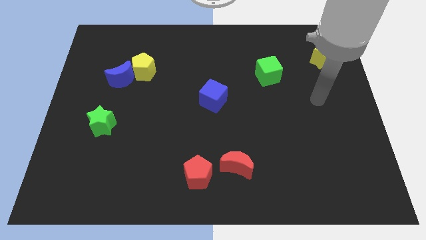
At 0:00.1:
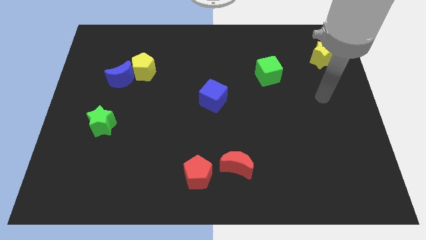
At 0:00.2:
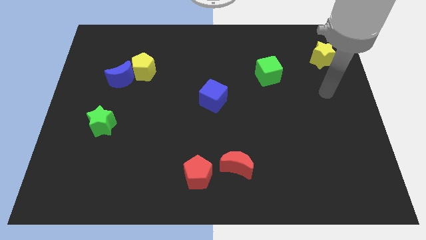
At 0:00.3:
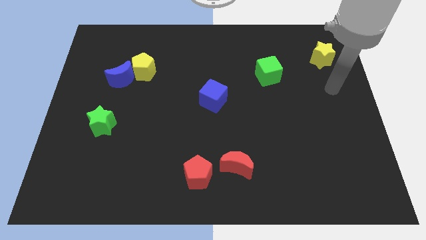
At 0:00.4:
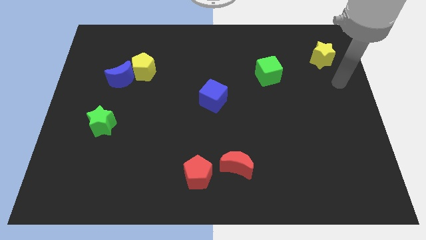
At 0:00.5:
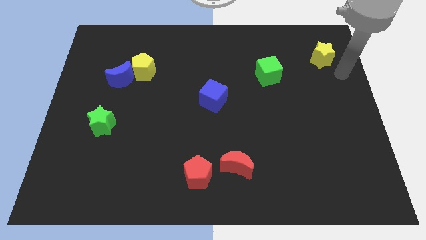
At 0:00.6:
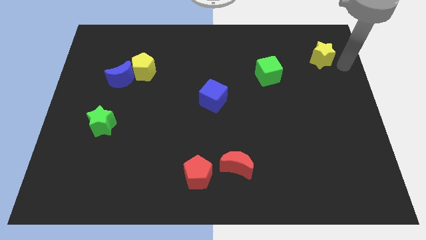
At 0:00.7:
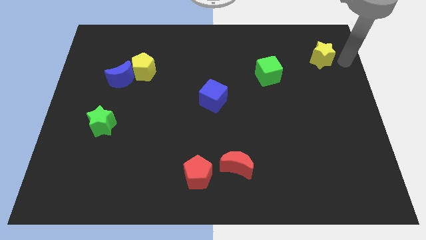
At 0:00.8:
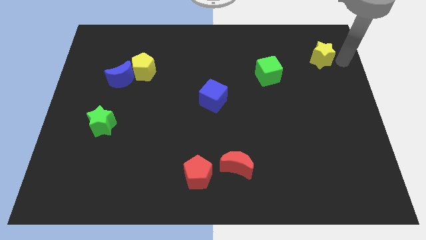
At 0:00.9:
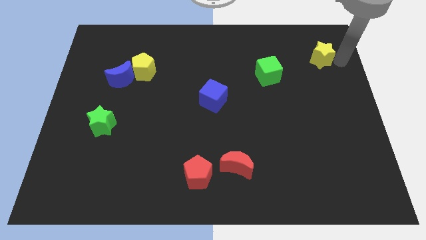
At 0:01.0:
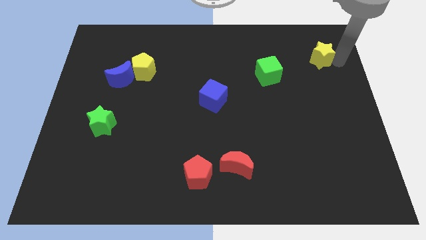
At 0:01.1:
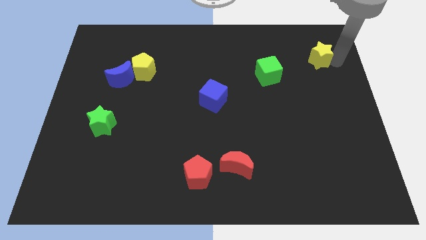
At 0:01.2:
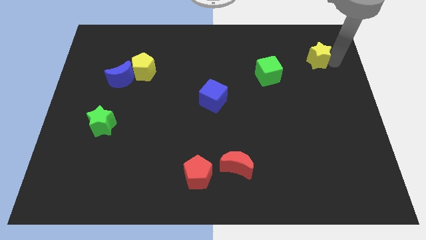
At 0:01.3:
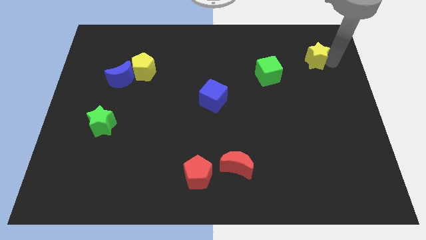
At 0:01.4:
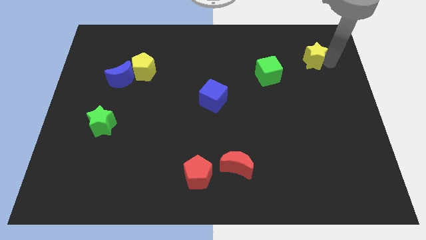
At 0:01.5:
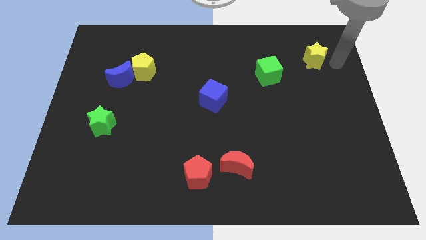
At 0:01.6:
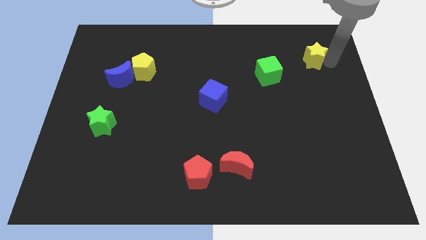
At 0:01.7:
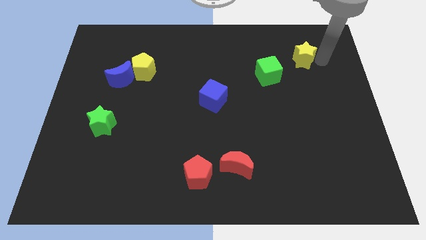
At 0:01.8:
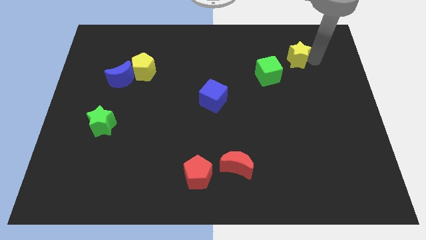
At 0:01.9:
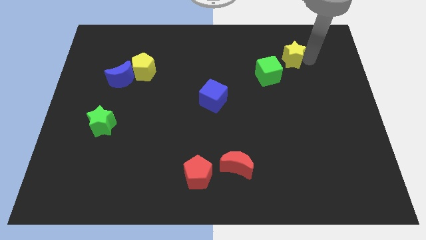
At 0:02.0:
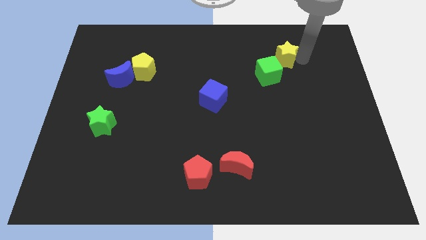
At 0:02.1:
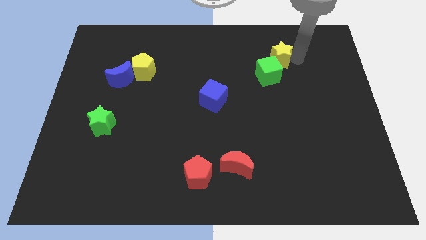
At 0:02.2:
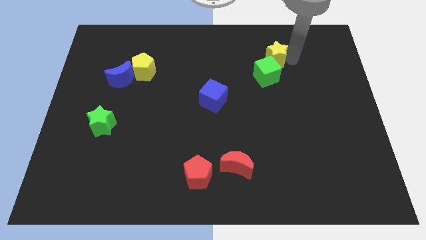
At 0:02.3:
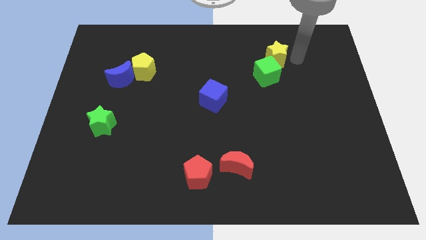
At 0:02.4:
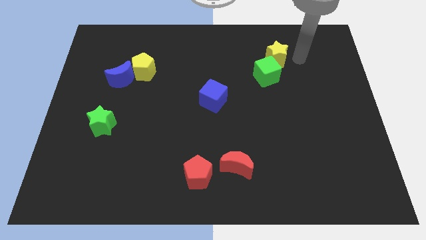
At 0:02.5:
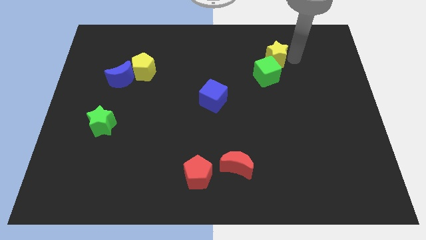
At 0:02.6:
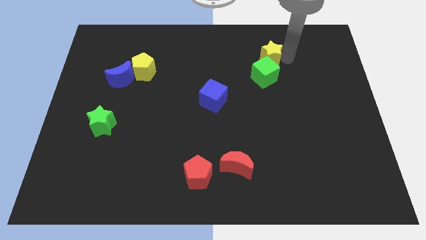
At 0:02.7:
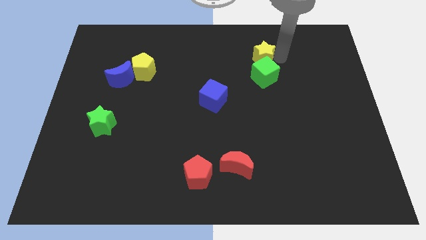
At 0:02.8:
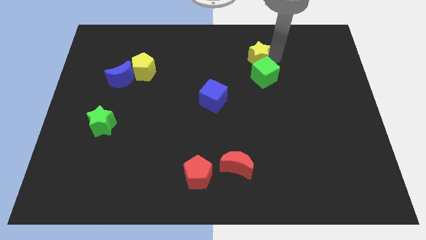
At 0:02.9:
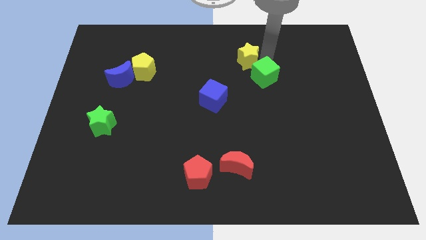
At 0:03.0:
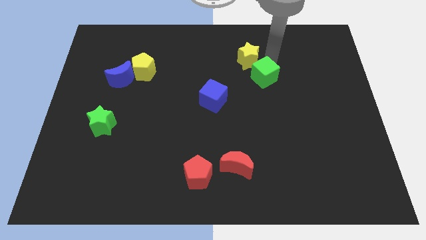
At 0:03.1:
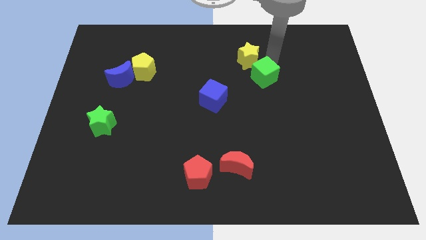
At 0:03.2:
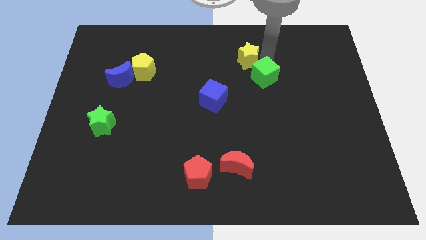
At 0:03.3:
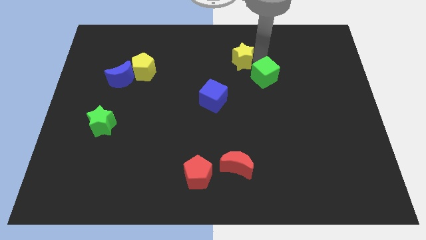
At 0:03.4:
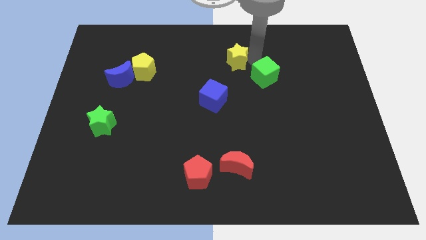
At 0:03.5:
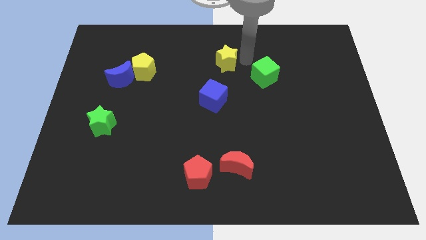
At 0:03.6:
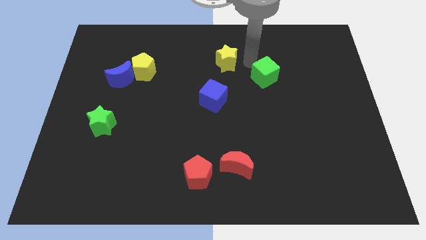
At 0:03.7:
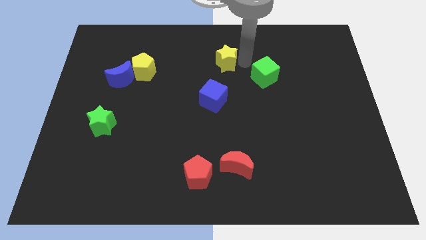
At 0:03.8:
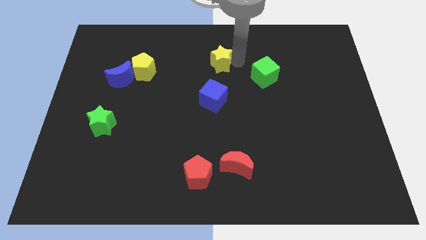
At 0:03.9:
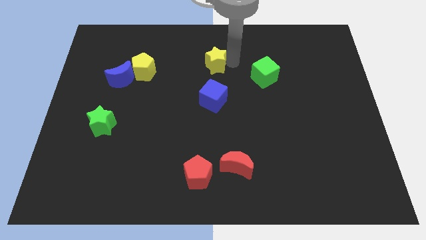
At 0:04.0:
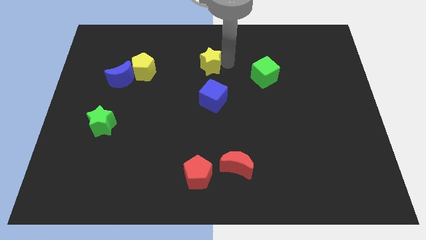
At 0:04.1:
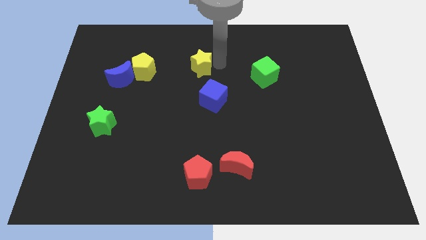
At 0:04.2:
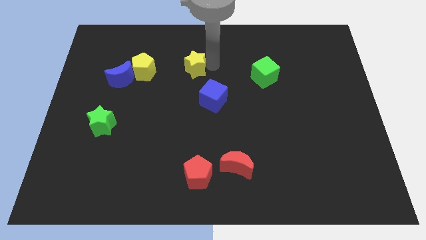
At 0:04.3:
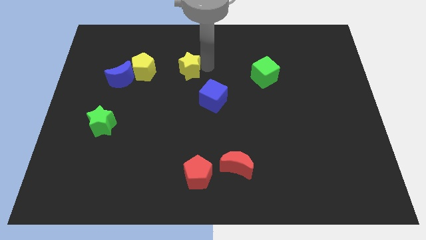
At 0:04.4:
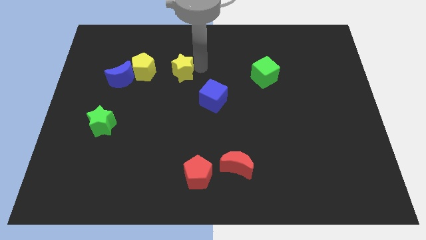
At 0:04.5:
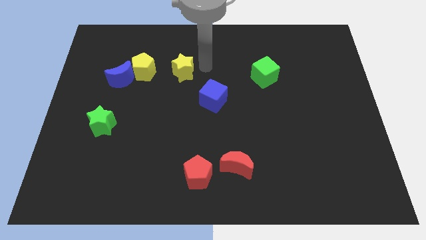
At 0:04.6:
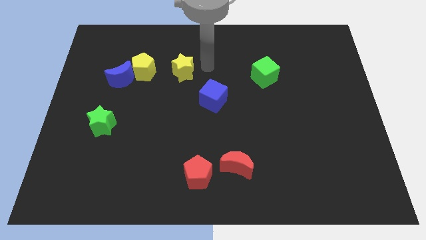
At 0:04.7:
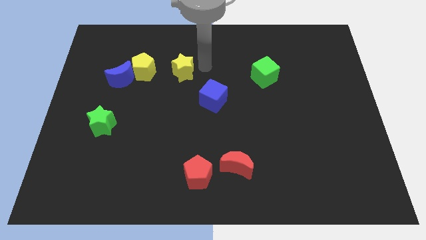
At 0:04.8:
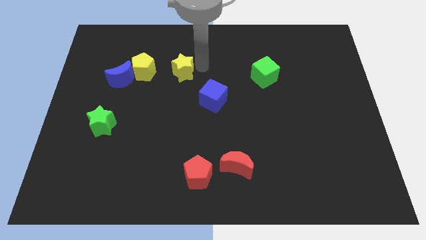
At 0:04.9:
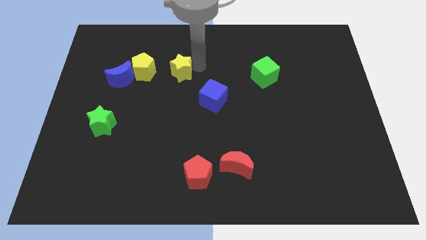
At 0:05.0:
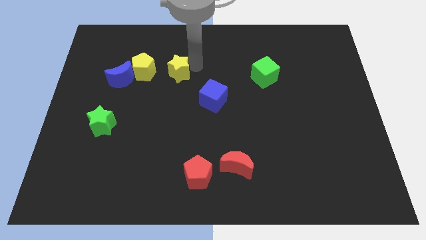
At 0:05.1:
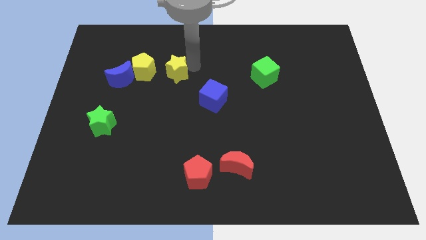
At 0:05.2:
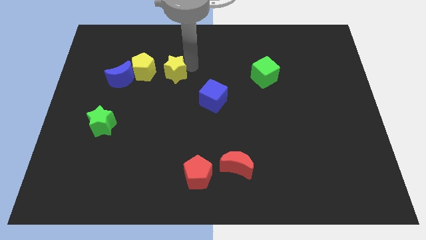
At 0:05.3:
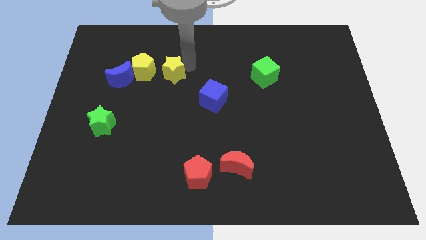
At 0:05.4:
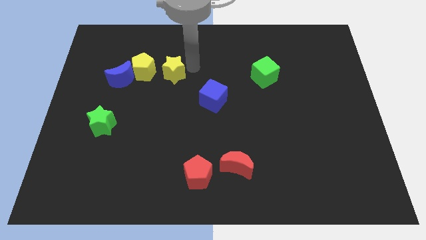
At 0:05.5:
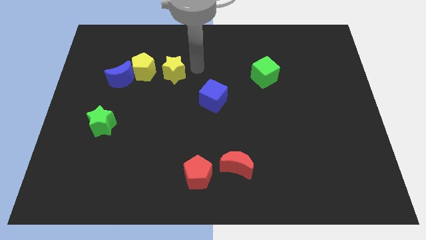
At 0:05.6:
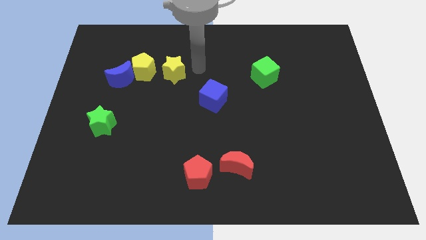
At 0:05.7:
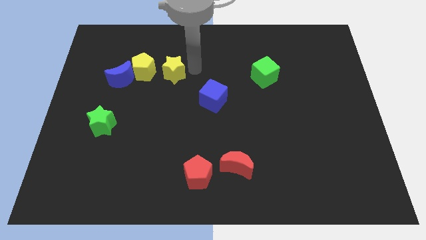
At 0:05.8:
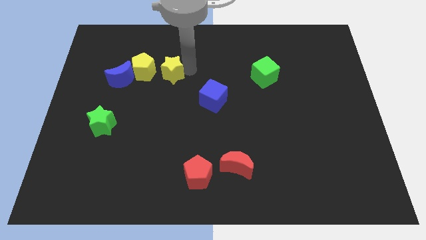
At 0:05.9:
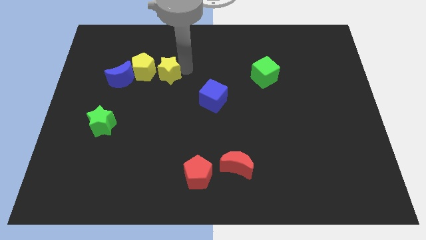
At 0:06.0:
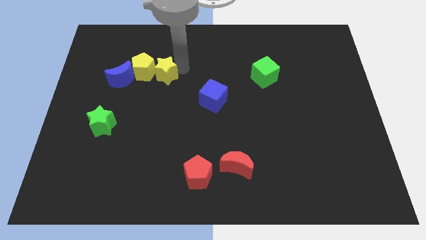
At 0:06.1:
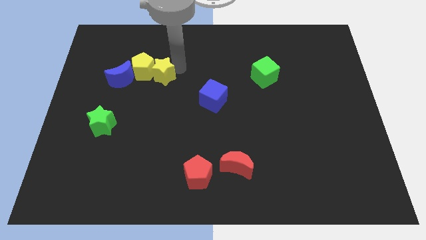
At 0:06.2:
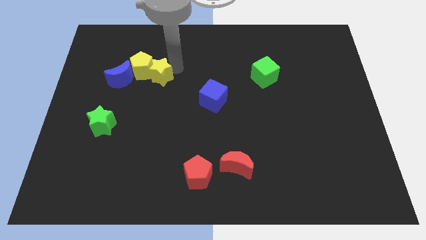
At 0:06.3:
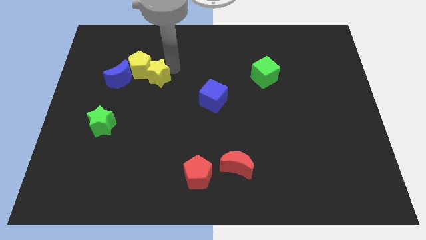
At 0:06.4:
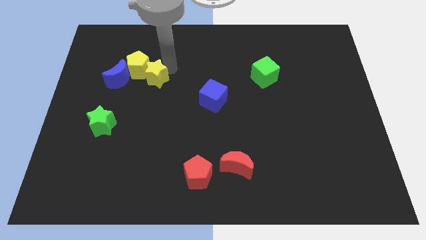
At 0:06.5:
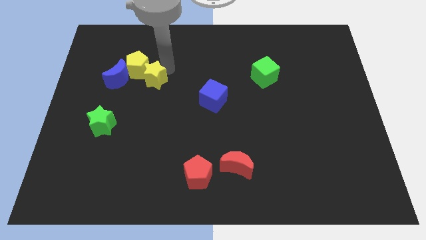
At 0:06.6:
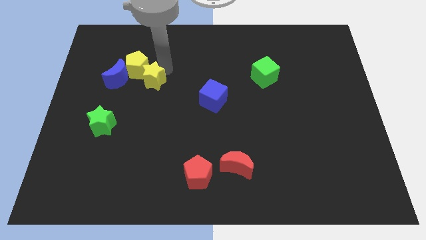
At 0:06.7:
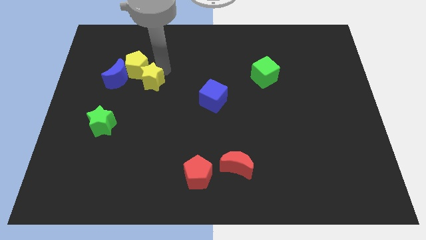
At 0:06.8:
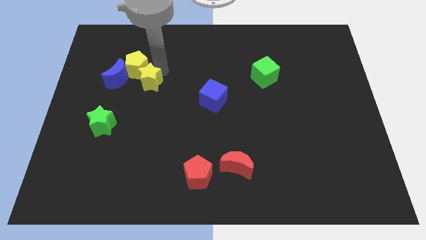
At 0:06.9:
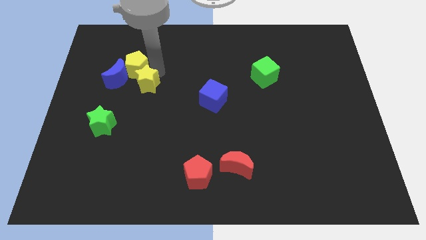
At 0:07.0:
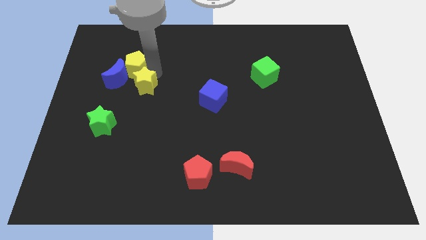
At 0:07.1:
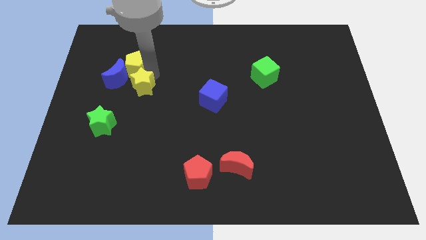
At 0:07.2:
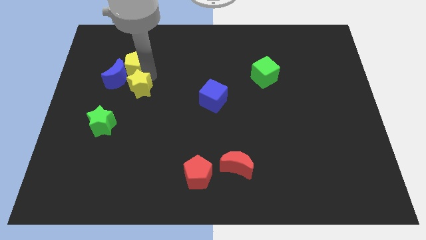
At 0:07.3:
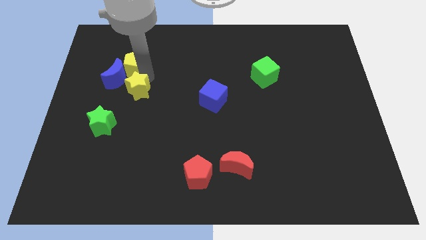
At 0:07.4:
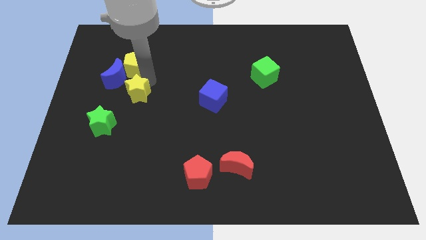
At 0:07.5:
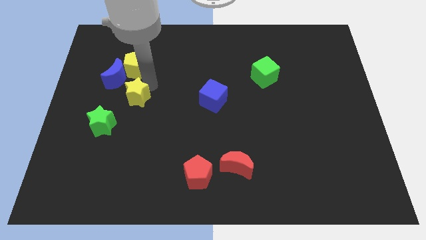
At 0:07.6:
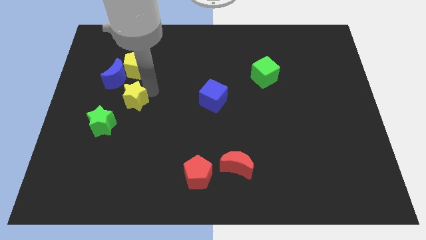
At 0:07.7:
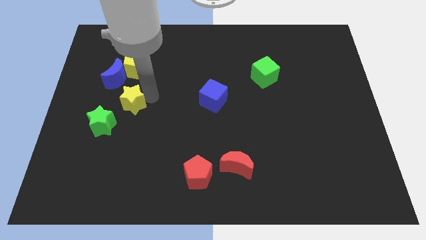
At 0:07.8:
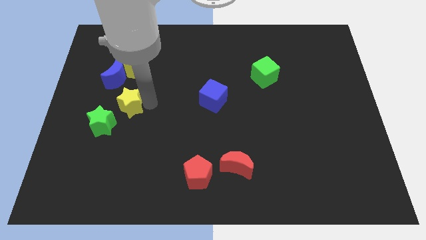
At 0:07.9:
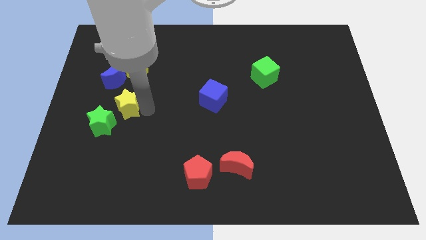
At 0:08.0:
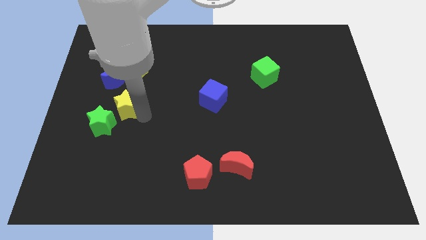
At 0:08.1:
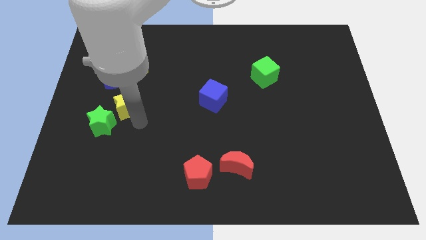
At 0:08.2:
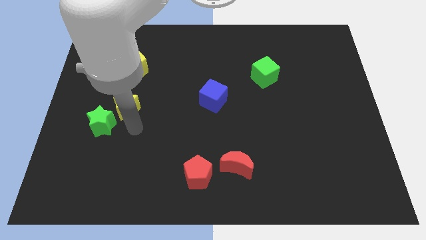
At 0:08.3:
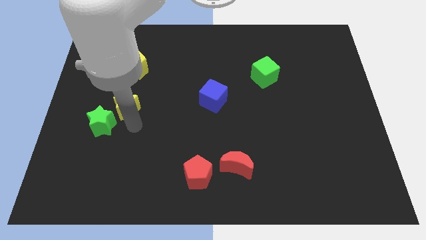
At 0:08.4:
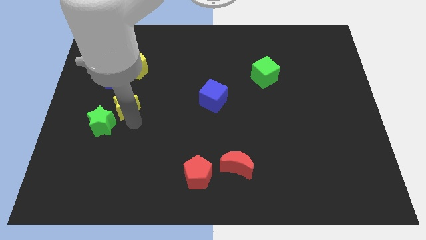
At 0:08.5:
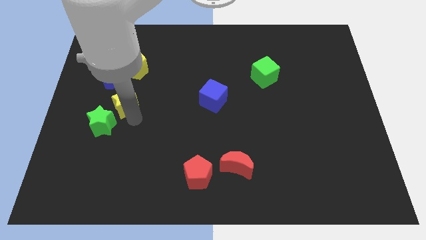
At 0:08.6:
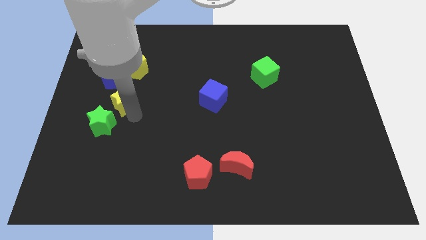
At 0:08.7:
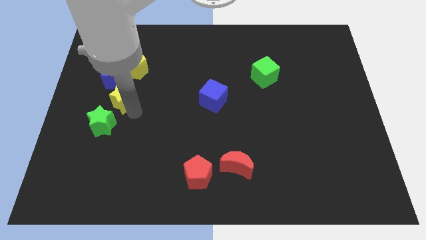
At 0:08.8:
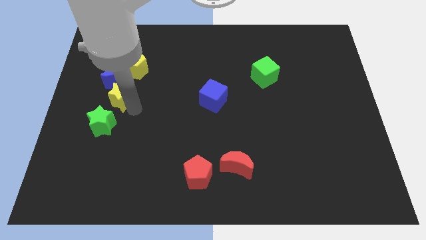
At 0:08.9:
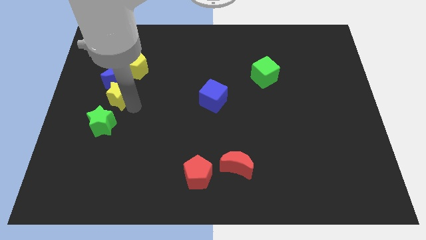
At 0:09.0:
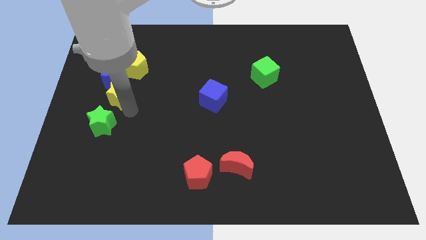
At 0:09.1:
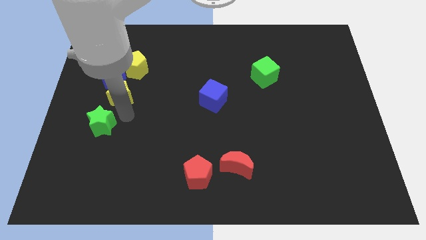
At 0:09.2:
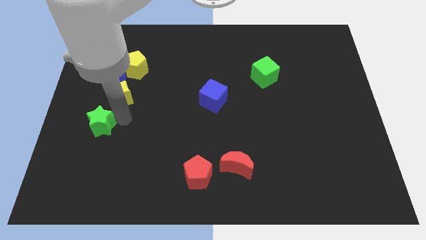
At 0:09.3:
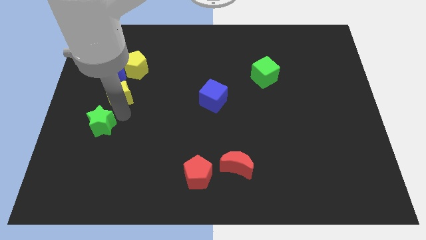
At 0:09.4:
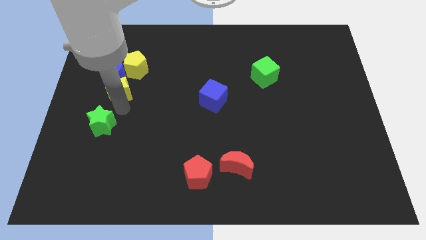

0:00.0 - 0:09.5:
move the yellow star close to the blue moon
